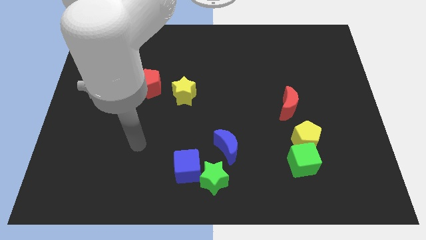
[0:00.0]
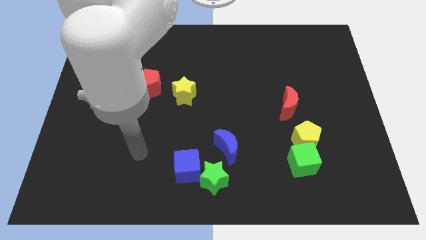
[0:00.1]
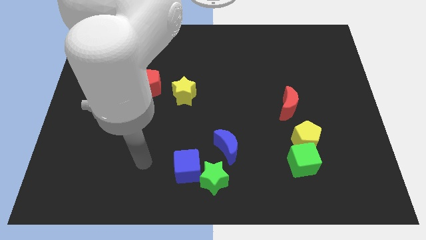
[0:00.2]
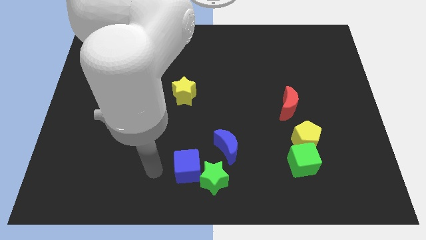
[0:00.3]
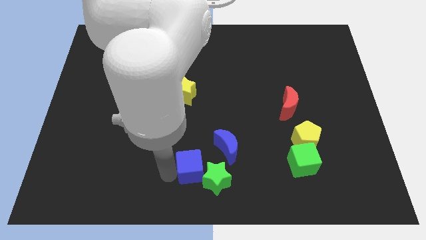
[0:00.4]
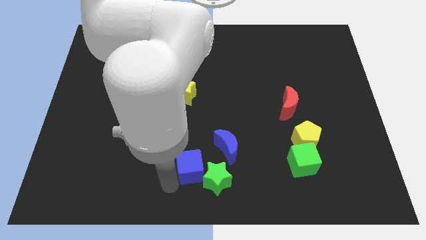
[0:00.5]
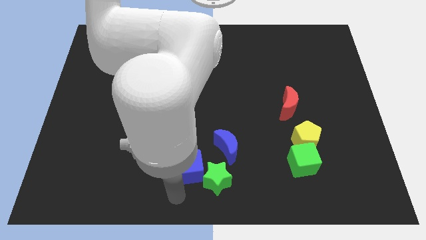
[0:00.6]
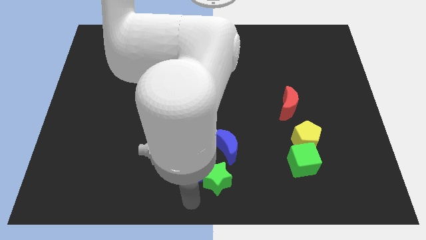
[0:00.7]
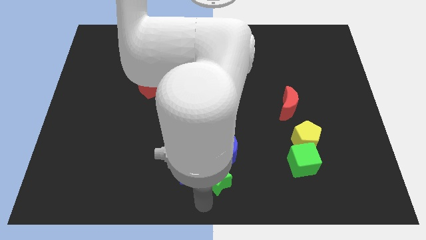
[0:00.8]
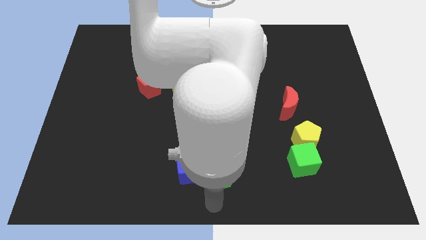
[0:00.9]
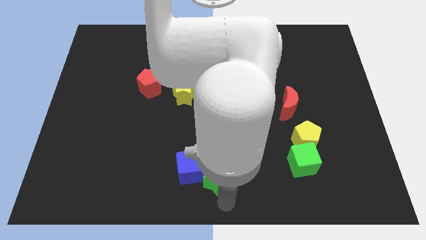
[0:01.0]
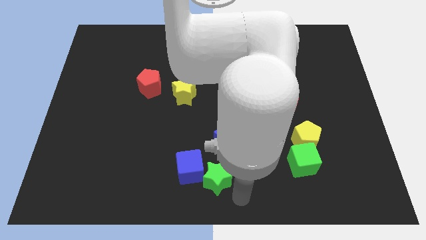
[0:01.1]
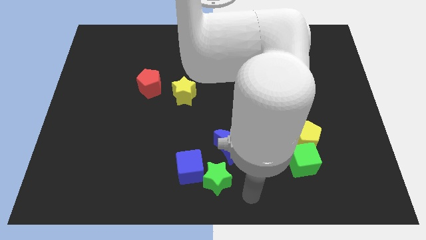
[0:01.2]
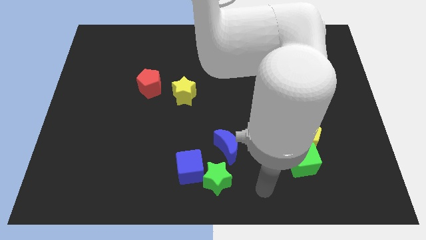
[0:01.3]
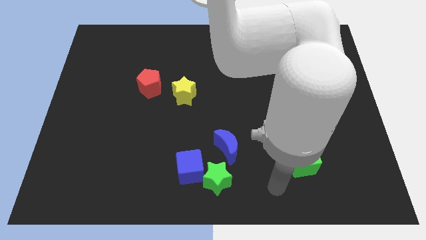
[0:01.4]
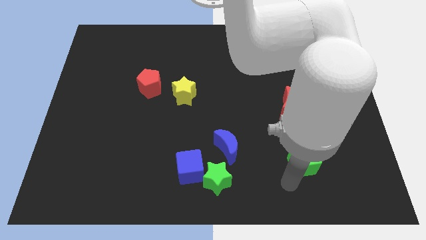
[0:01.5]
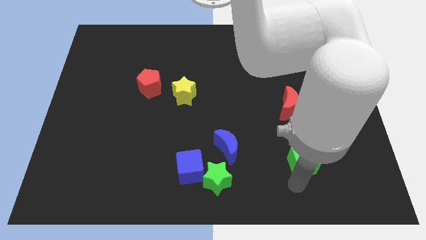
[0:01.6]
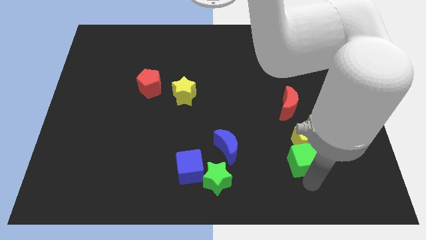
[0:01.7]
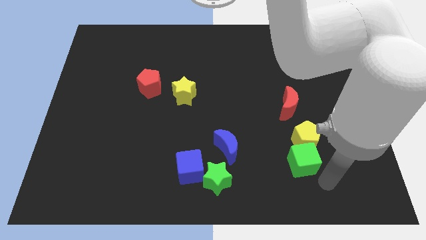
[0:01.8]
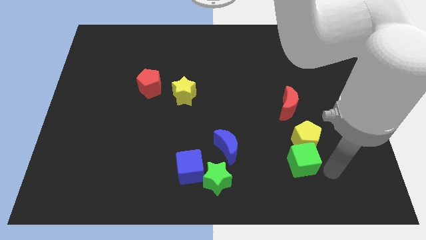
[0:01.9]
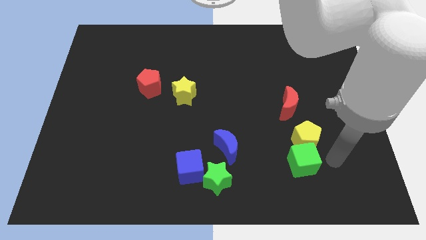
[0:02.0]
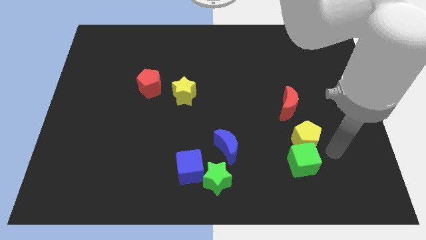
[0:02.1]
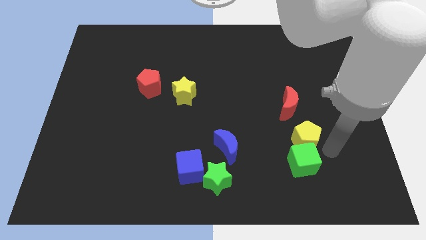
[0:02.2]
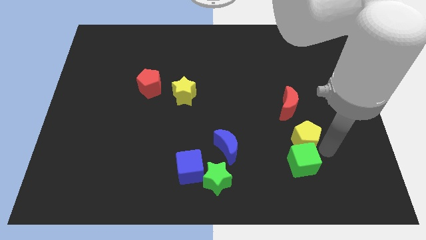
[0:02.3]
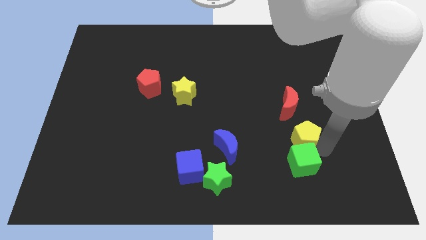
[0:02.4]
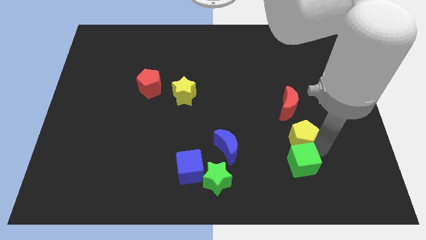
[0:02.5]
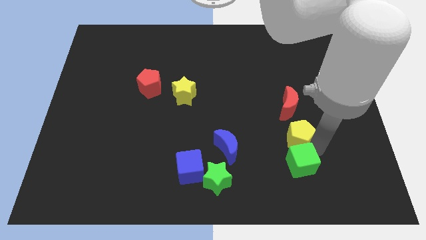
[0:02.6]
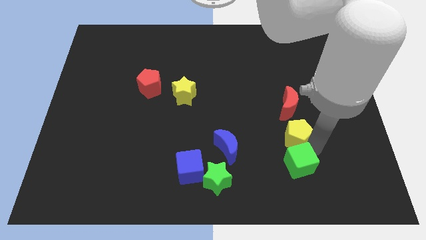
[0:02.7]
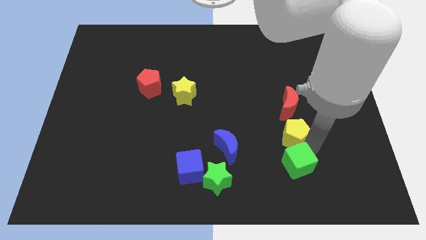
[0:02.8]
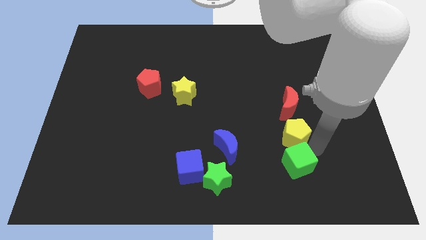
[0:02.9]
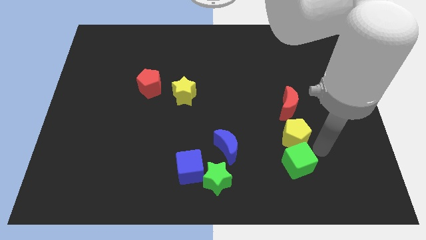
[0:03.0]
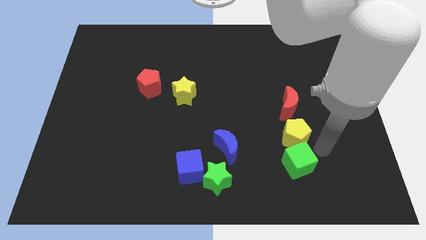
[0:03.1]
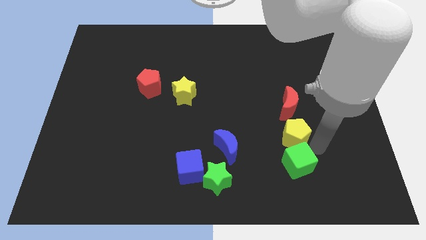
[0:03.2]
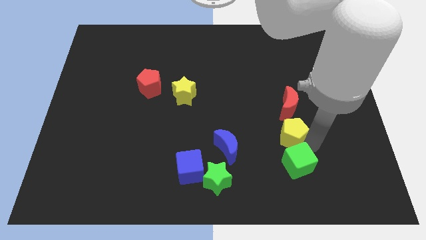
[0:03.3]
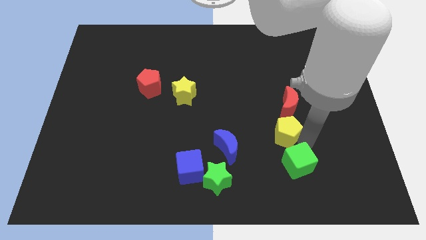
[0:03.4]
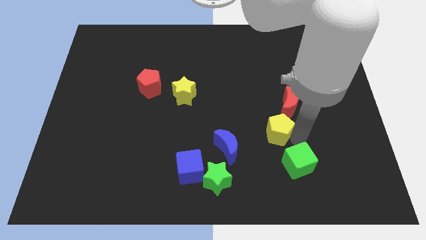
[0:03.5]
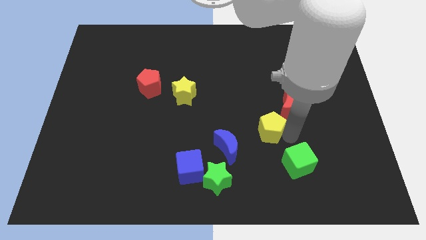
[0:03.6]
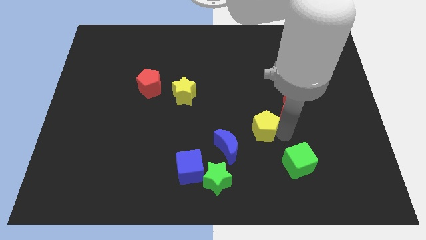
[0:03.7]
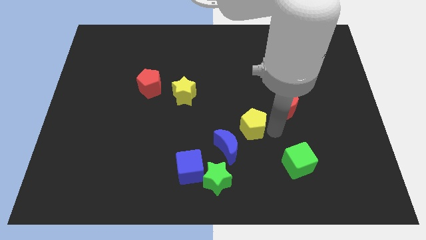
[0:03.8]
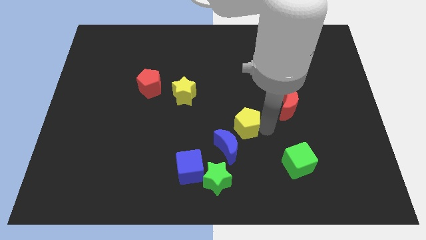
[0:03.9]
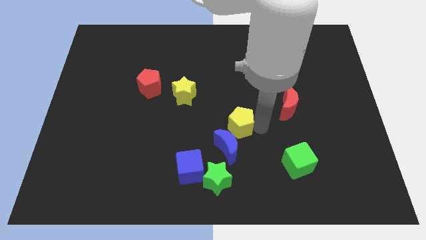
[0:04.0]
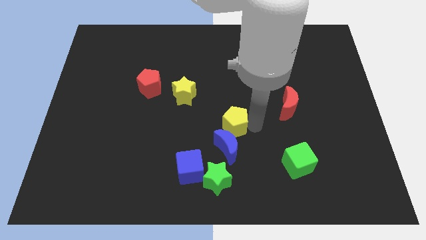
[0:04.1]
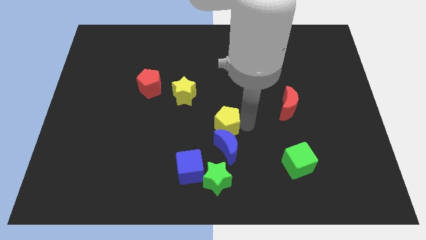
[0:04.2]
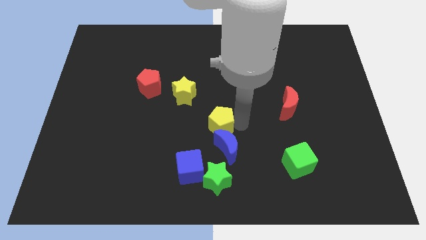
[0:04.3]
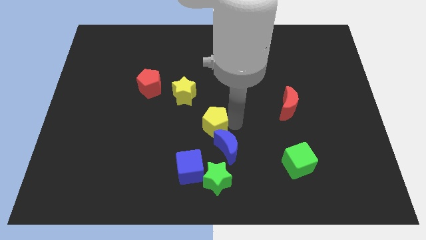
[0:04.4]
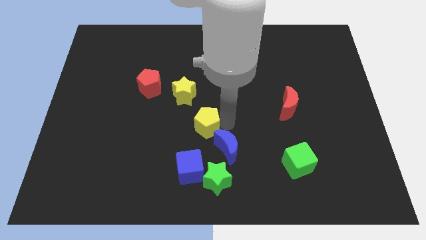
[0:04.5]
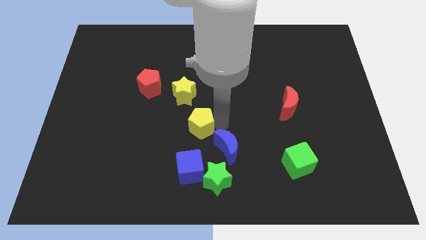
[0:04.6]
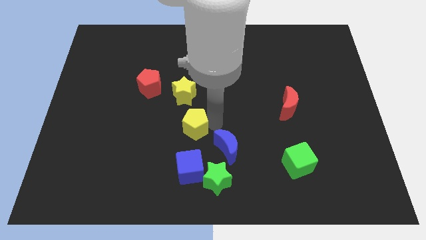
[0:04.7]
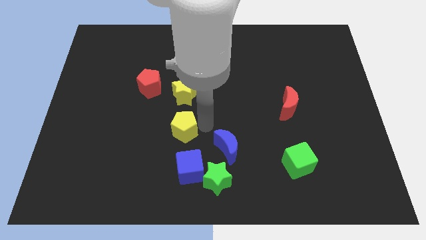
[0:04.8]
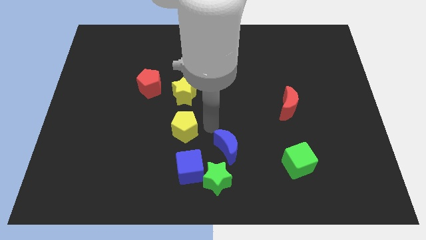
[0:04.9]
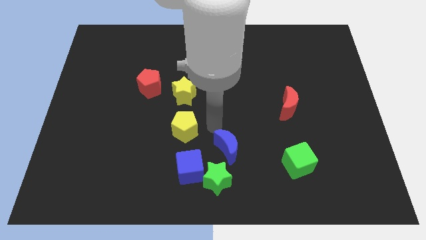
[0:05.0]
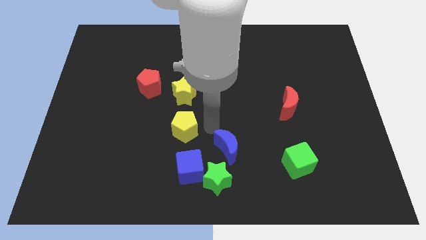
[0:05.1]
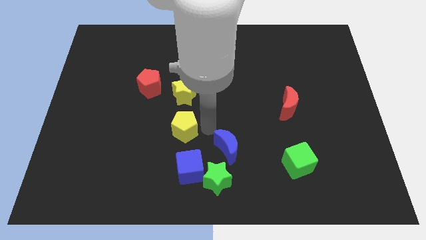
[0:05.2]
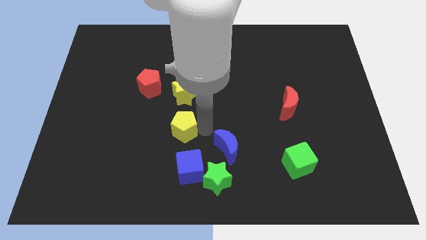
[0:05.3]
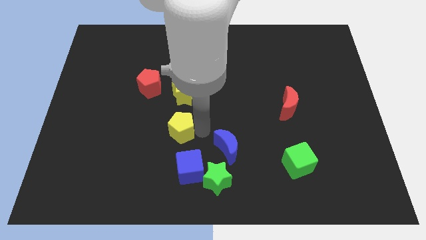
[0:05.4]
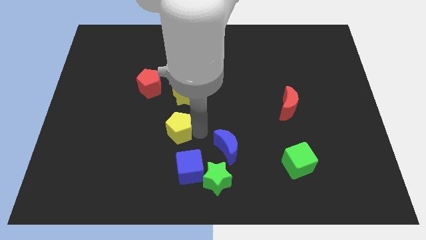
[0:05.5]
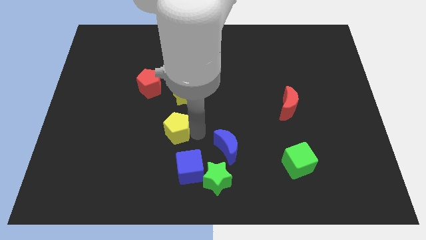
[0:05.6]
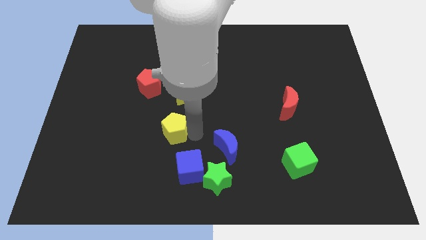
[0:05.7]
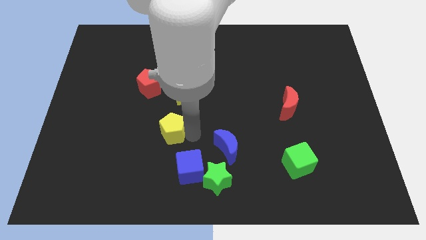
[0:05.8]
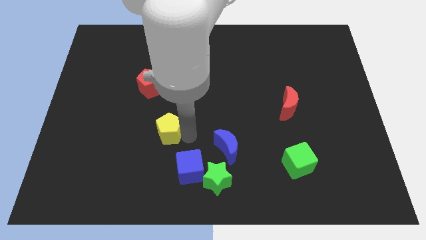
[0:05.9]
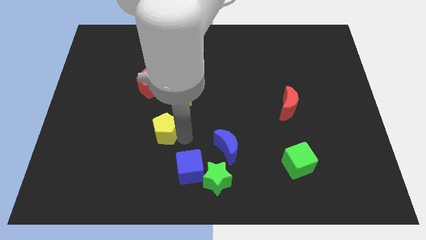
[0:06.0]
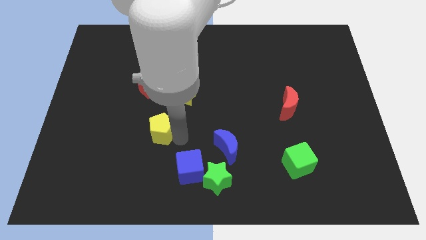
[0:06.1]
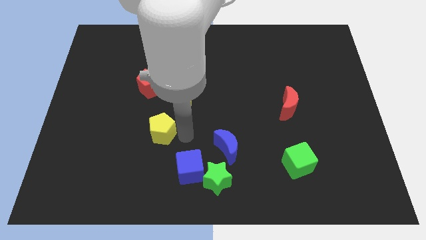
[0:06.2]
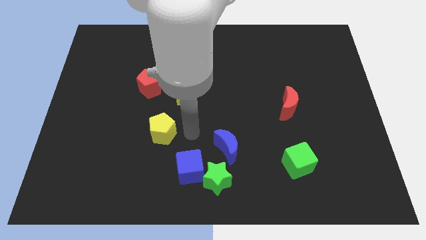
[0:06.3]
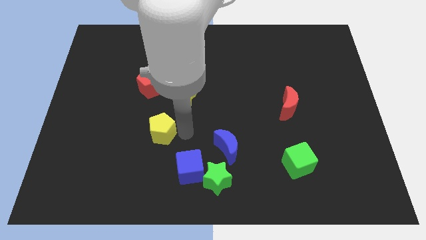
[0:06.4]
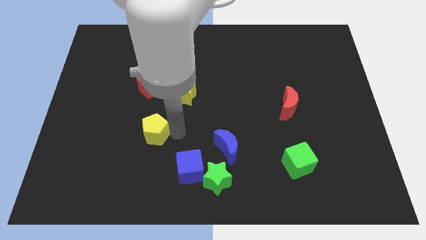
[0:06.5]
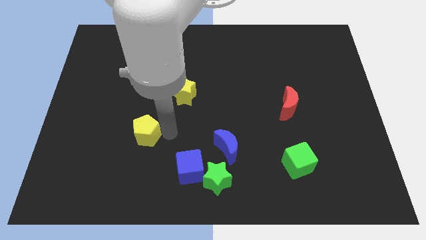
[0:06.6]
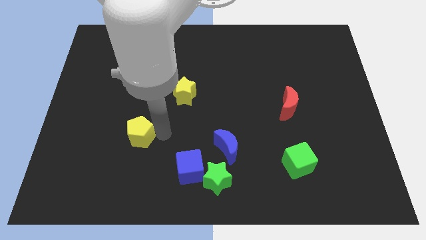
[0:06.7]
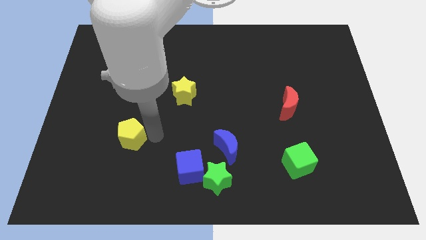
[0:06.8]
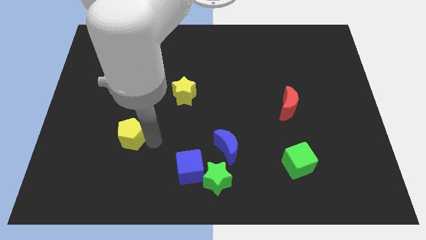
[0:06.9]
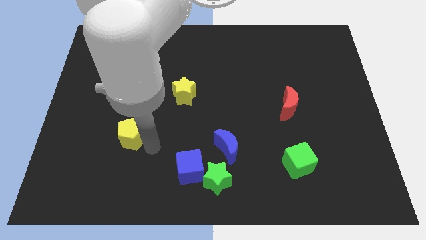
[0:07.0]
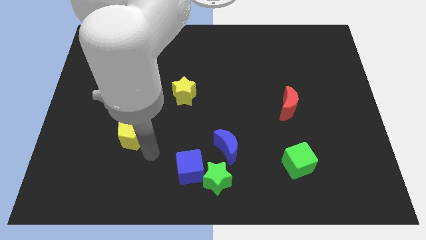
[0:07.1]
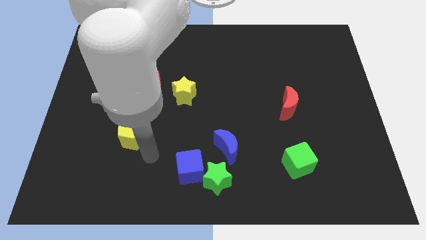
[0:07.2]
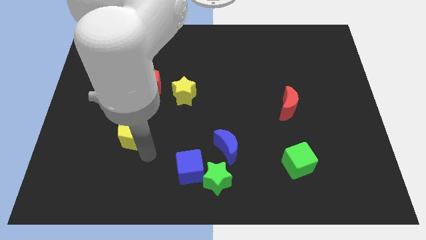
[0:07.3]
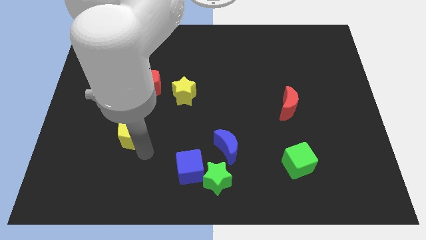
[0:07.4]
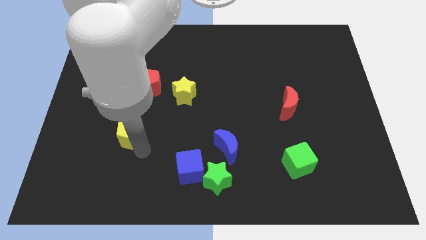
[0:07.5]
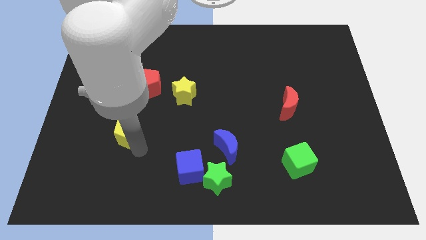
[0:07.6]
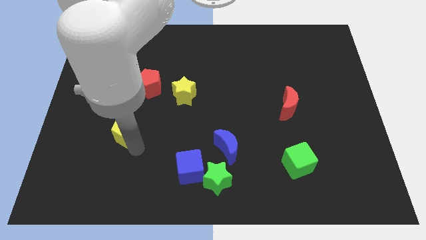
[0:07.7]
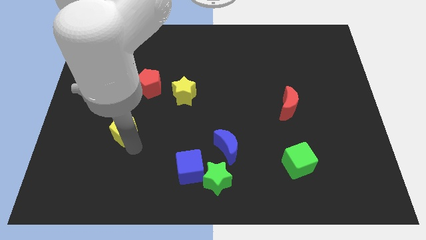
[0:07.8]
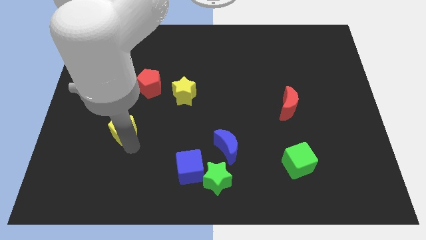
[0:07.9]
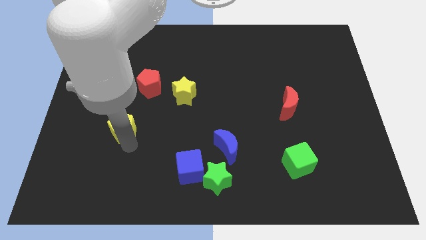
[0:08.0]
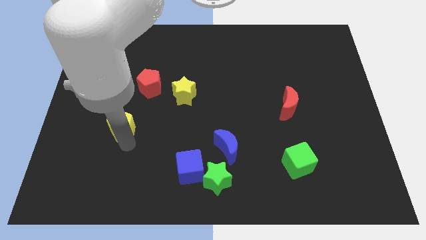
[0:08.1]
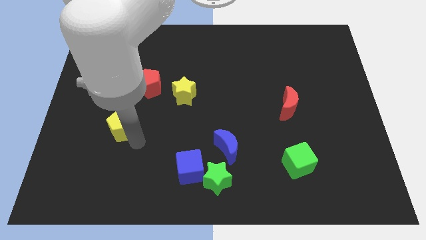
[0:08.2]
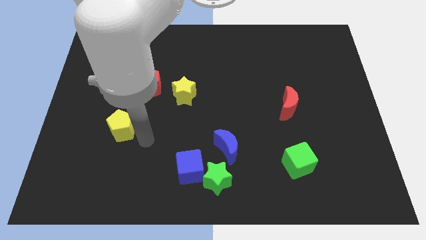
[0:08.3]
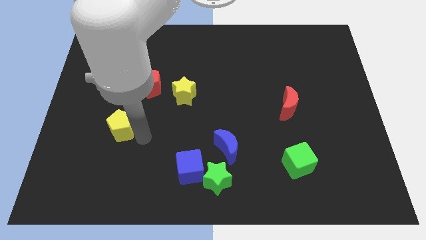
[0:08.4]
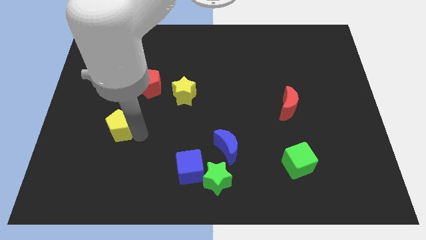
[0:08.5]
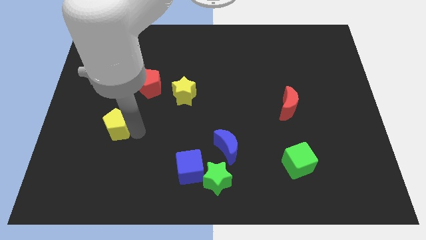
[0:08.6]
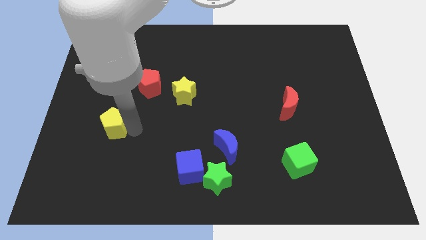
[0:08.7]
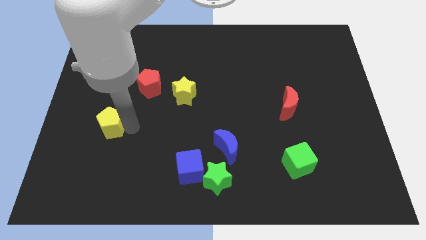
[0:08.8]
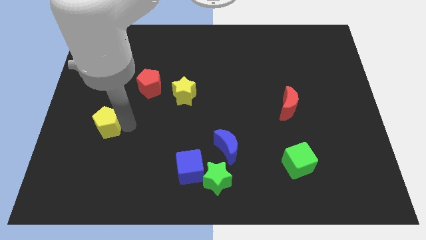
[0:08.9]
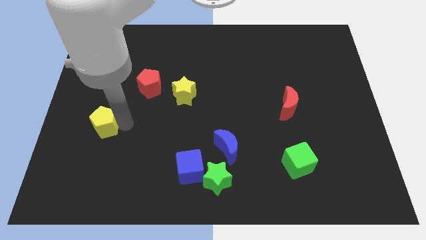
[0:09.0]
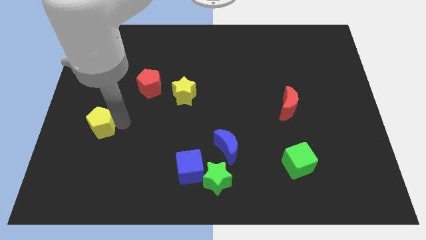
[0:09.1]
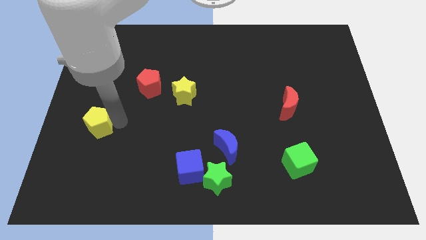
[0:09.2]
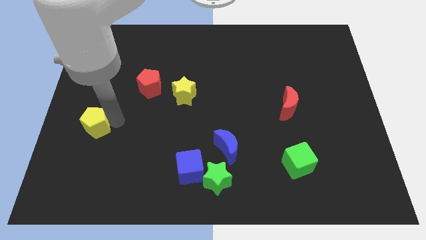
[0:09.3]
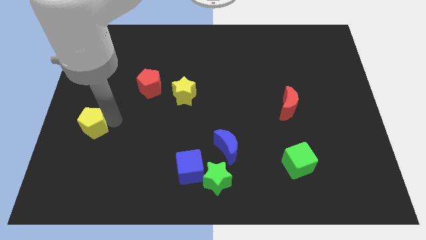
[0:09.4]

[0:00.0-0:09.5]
move the yellow pentagon to the left side of the board
